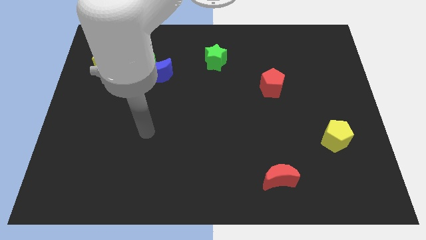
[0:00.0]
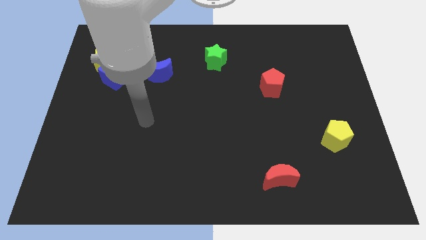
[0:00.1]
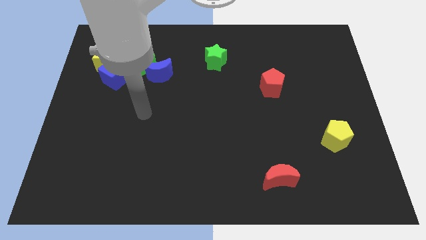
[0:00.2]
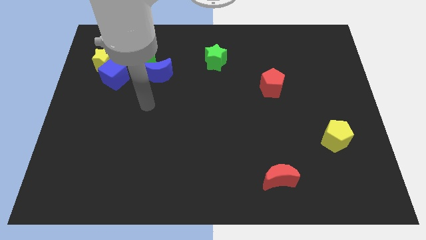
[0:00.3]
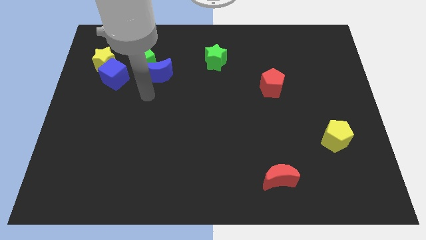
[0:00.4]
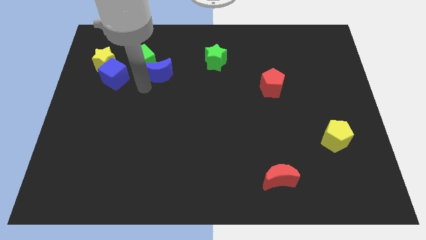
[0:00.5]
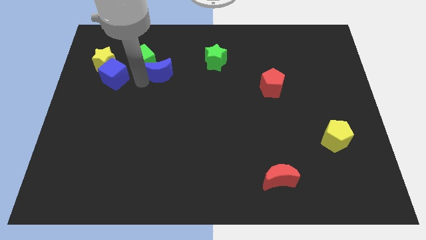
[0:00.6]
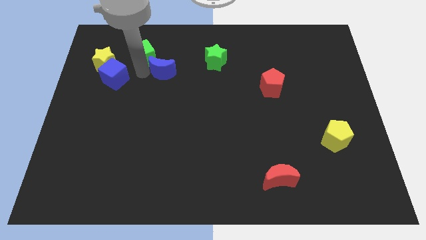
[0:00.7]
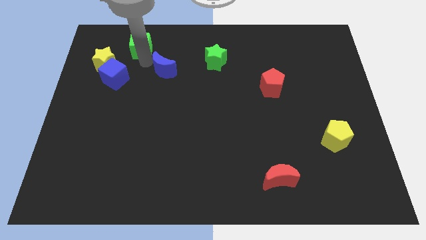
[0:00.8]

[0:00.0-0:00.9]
pull the blue moon apart from the green cube

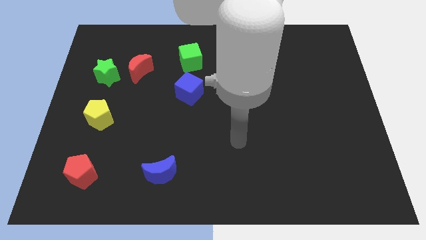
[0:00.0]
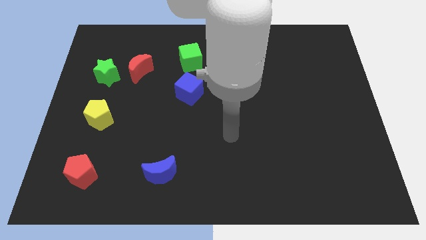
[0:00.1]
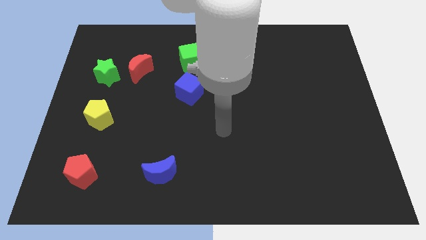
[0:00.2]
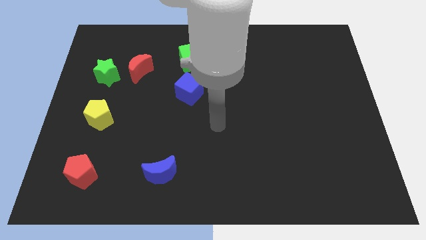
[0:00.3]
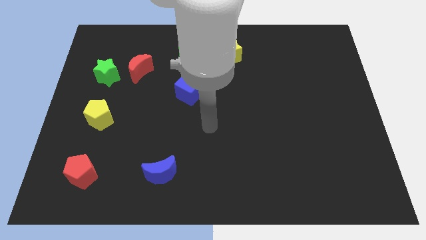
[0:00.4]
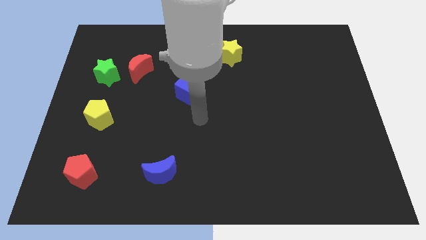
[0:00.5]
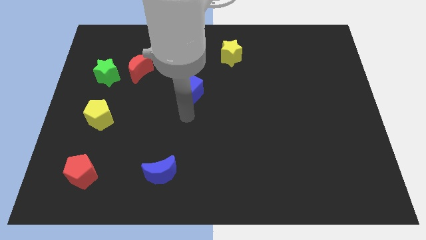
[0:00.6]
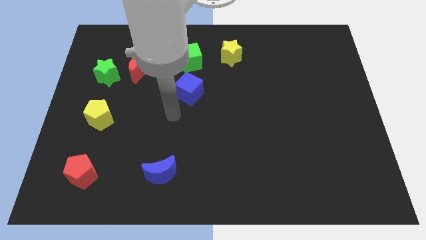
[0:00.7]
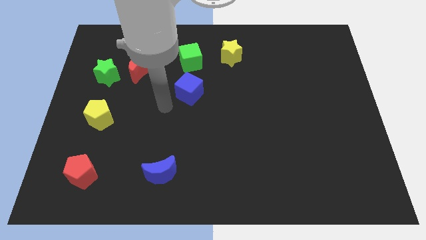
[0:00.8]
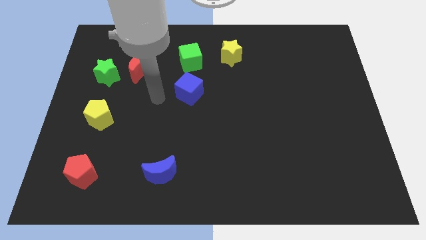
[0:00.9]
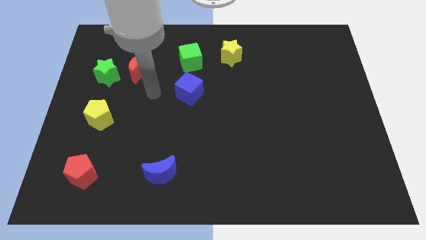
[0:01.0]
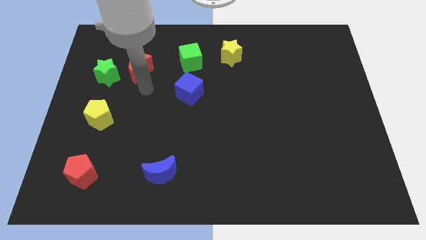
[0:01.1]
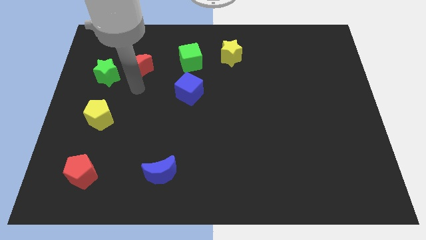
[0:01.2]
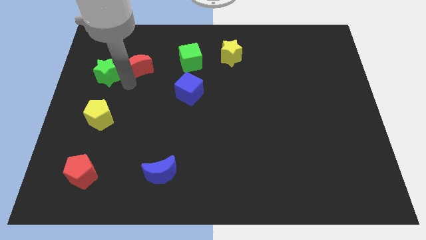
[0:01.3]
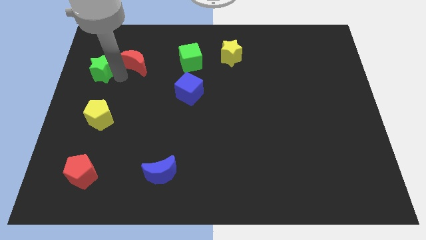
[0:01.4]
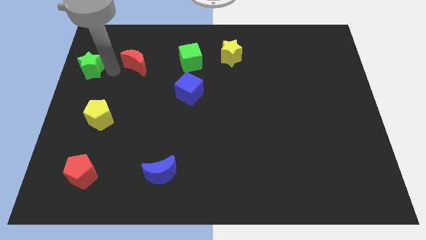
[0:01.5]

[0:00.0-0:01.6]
move the red moon away from the green star

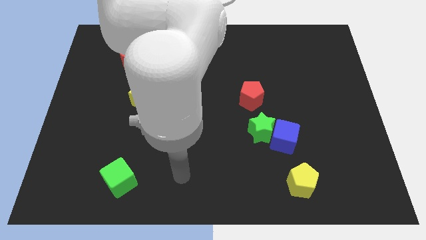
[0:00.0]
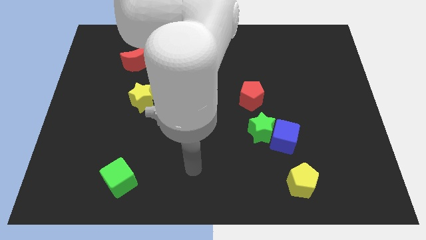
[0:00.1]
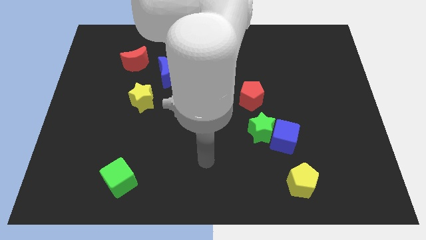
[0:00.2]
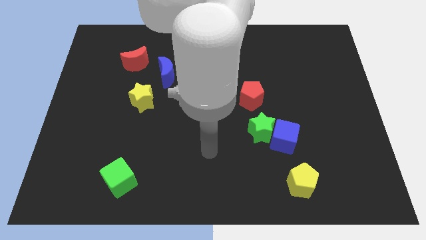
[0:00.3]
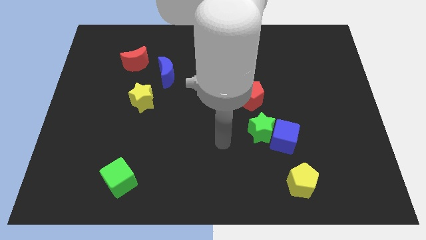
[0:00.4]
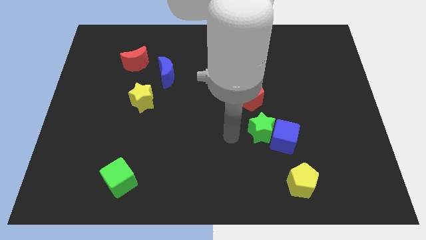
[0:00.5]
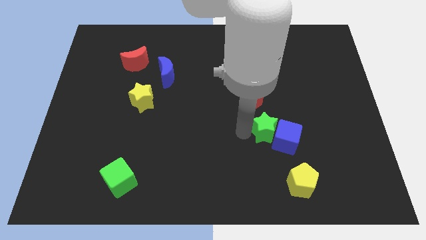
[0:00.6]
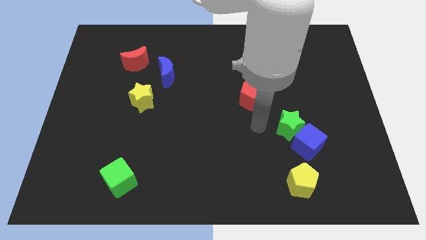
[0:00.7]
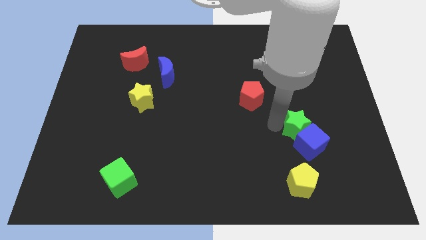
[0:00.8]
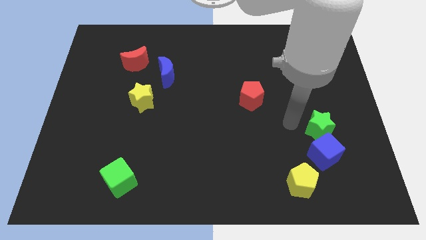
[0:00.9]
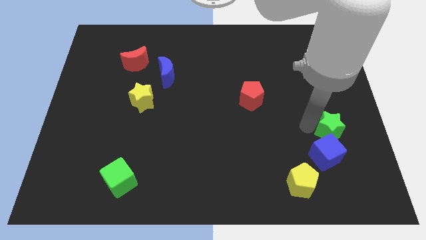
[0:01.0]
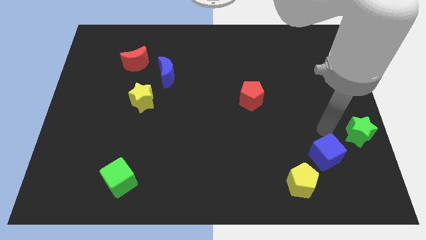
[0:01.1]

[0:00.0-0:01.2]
separate the blue cube from the green star

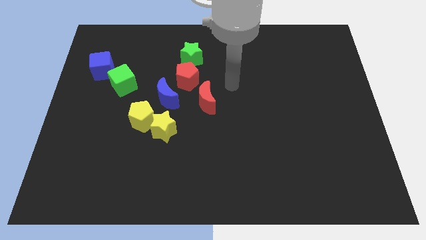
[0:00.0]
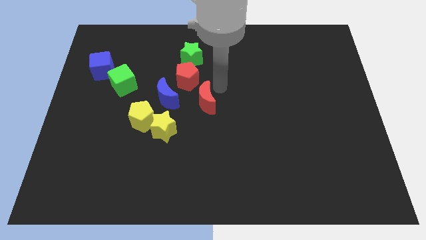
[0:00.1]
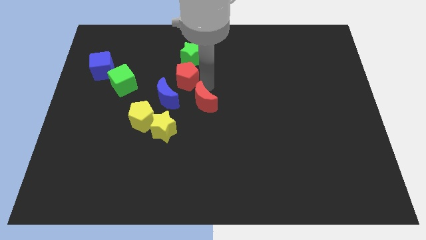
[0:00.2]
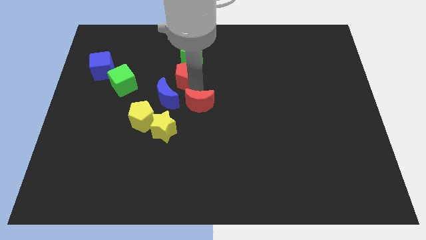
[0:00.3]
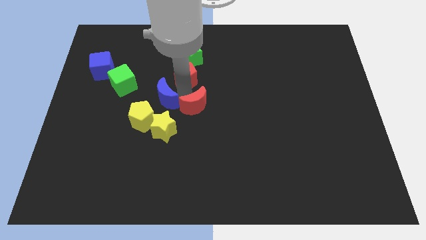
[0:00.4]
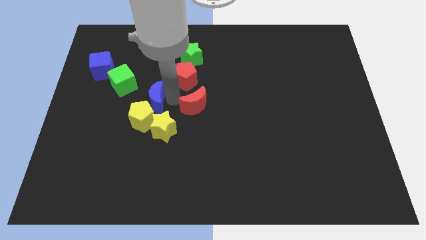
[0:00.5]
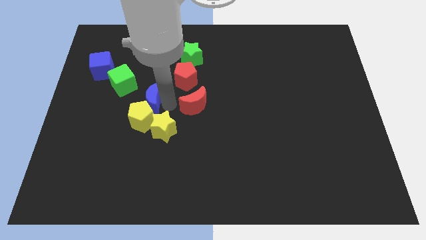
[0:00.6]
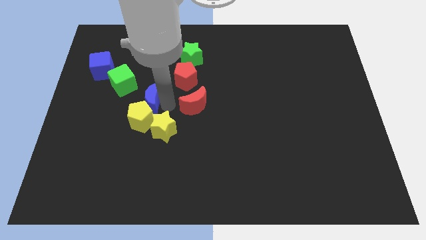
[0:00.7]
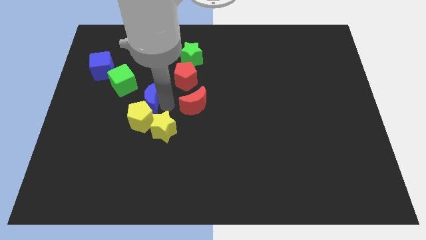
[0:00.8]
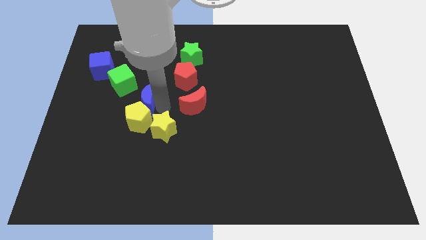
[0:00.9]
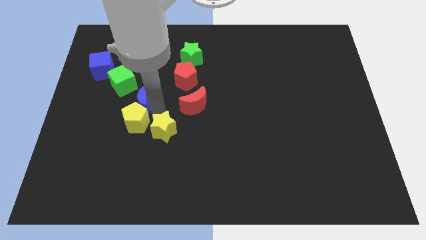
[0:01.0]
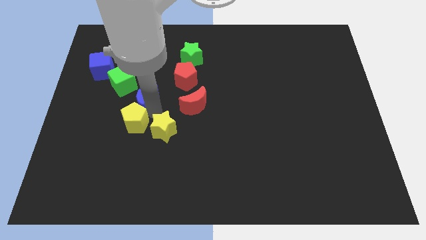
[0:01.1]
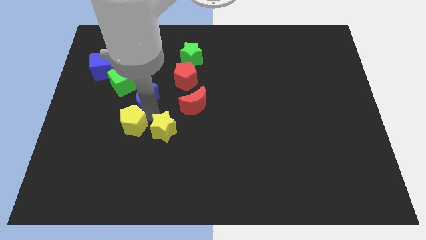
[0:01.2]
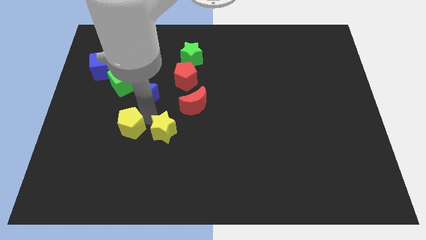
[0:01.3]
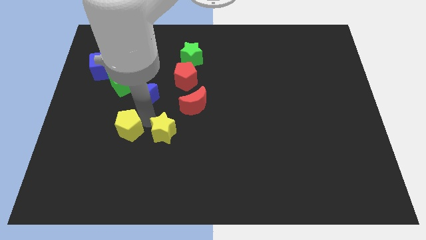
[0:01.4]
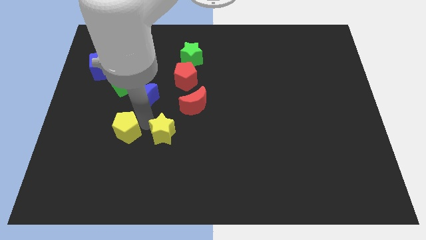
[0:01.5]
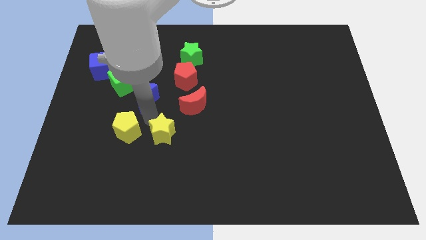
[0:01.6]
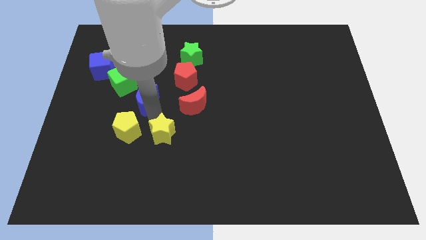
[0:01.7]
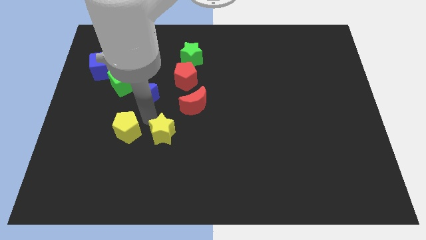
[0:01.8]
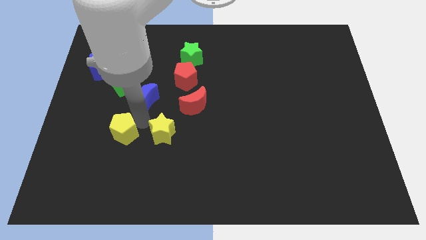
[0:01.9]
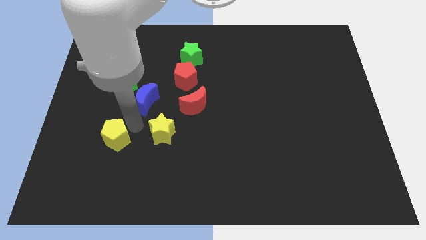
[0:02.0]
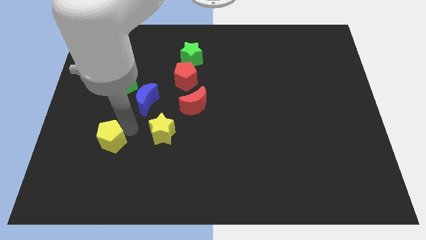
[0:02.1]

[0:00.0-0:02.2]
move the yellow pentagon away from the yellow star and blue moon

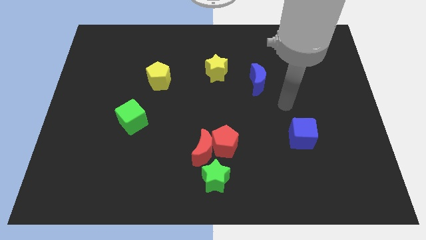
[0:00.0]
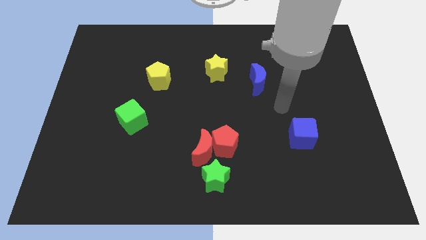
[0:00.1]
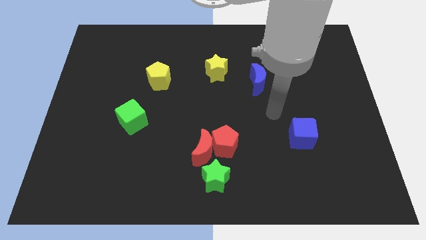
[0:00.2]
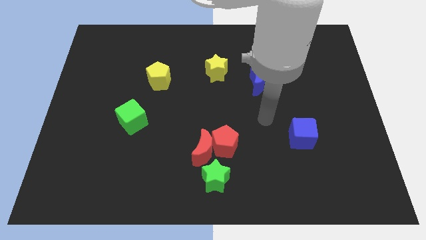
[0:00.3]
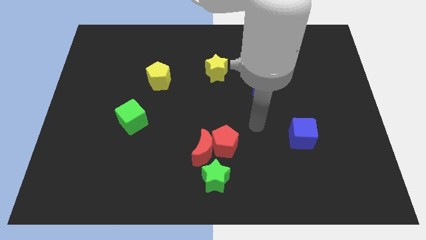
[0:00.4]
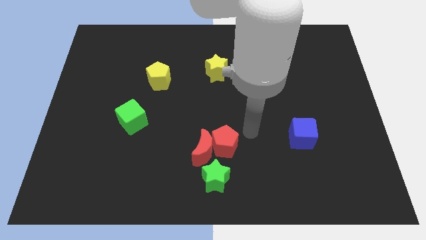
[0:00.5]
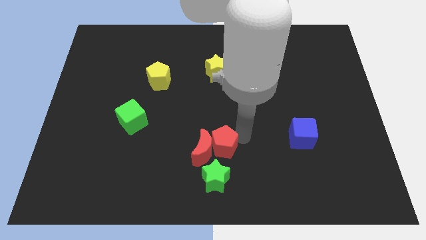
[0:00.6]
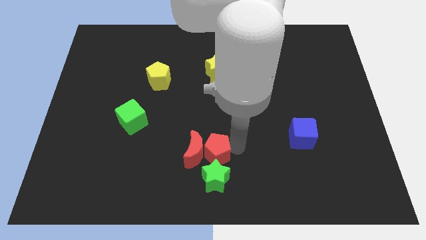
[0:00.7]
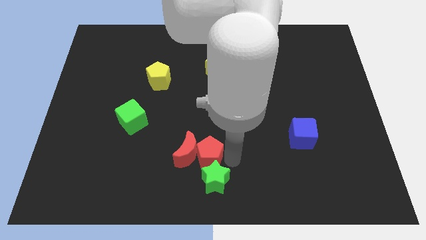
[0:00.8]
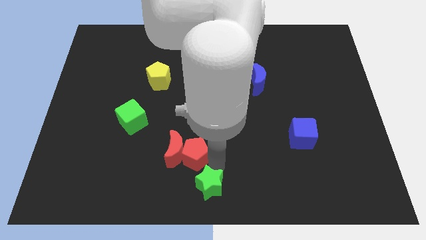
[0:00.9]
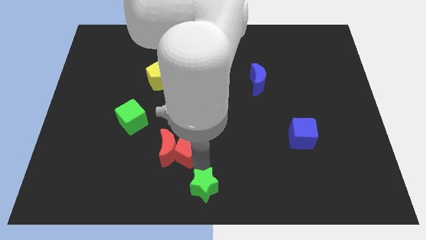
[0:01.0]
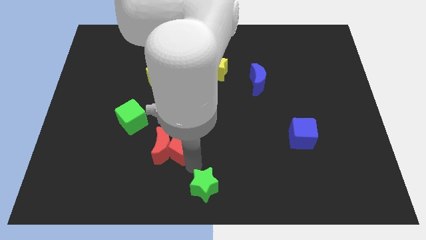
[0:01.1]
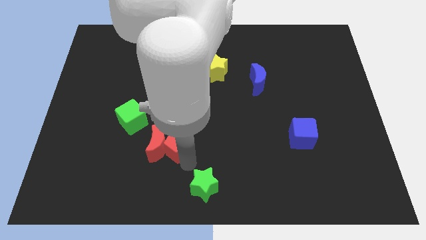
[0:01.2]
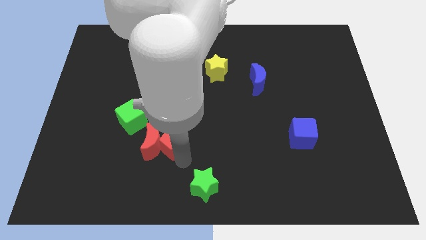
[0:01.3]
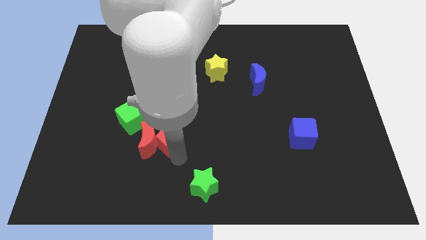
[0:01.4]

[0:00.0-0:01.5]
pull the red moon apart from the red pentagon and green star

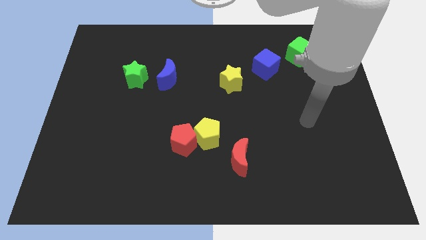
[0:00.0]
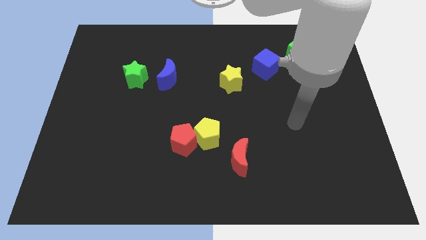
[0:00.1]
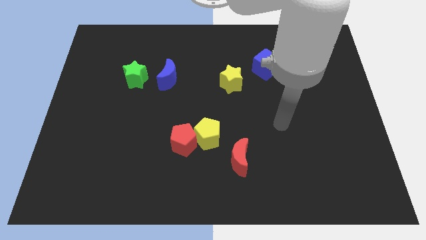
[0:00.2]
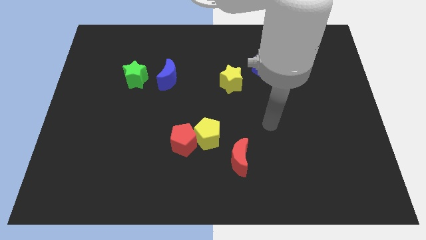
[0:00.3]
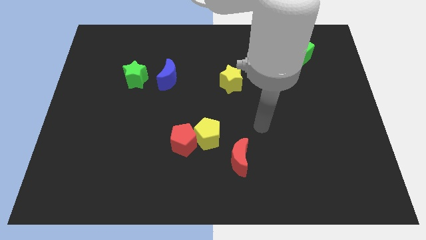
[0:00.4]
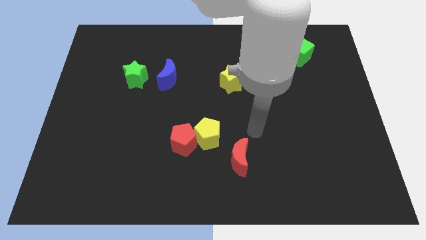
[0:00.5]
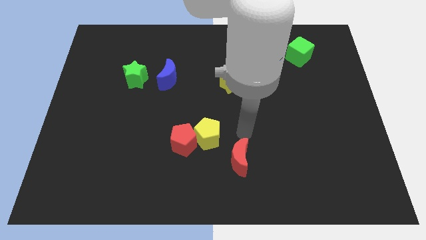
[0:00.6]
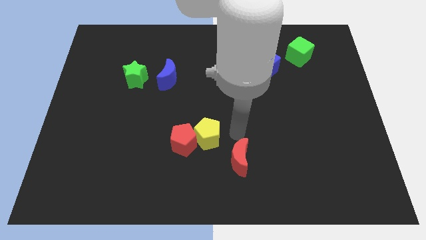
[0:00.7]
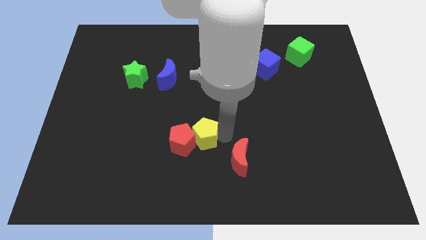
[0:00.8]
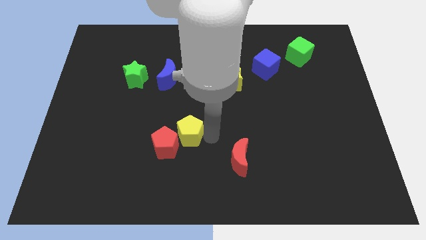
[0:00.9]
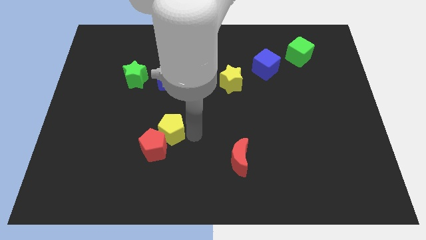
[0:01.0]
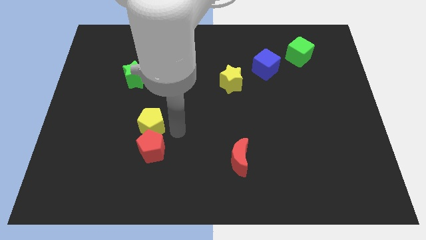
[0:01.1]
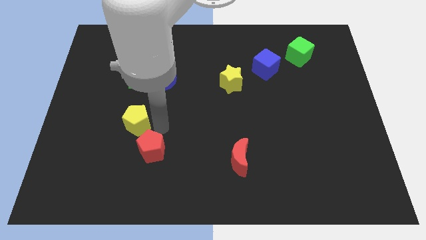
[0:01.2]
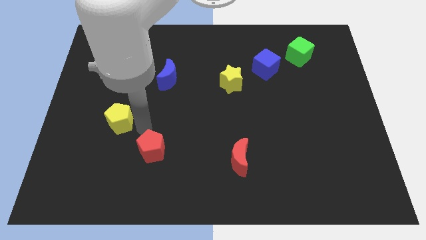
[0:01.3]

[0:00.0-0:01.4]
separate the red pentagon from the yellow pentagon

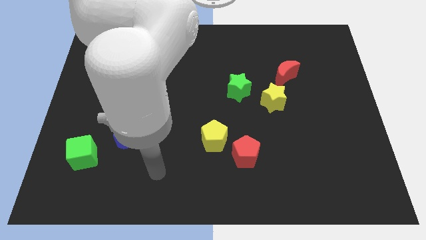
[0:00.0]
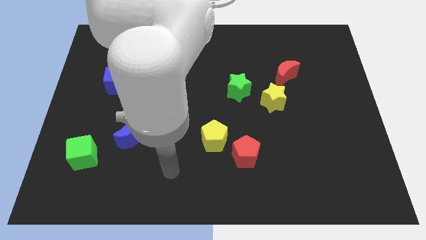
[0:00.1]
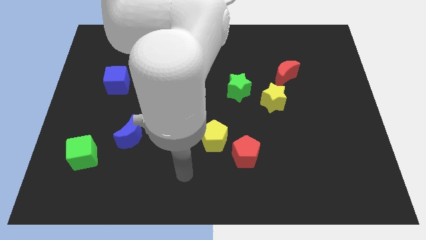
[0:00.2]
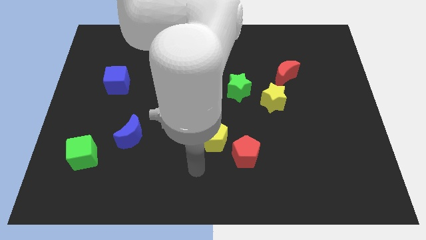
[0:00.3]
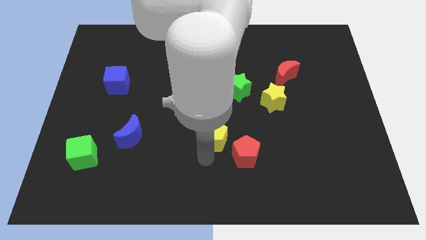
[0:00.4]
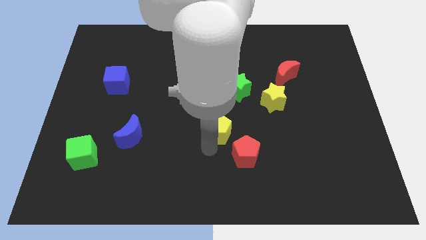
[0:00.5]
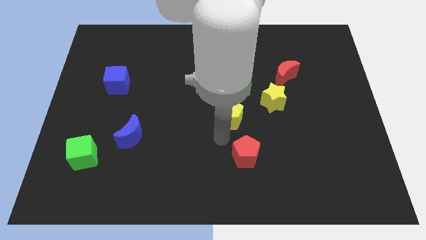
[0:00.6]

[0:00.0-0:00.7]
move the red pentagon away from the yellow pentagon
